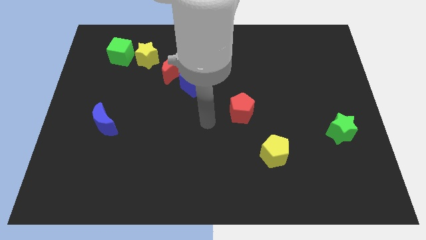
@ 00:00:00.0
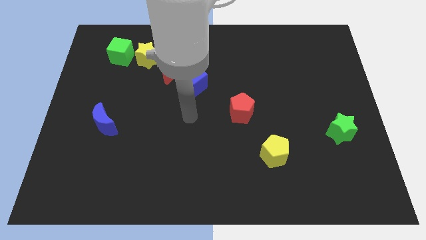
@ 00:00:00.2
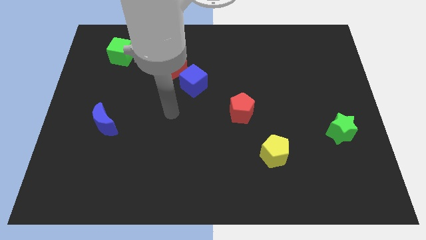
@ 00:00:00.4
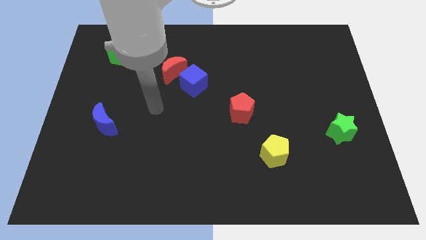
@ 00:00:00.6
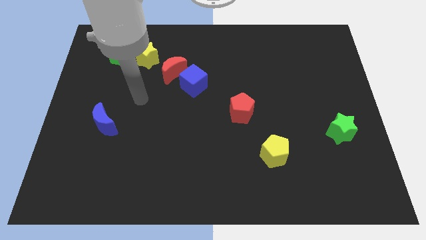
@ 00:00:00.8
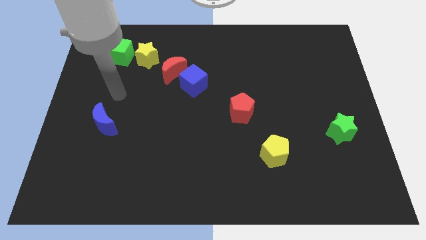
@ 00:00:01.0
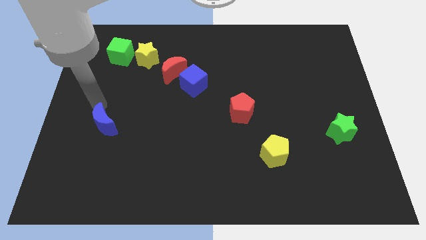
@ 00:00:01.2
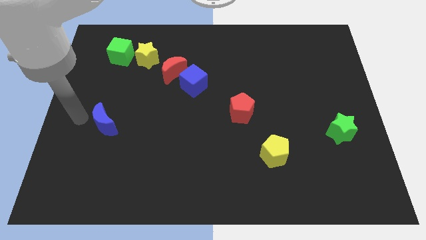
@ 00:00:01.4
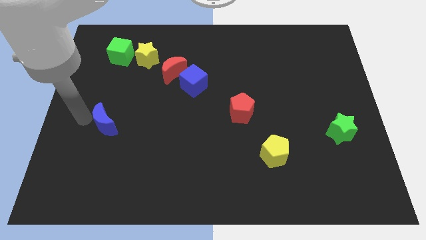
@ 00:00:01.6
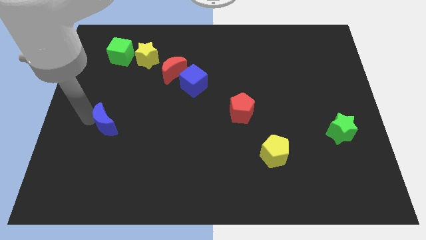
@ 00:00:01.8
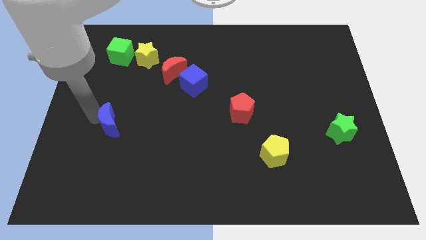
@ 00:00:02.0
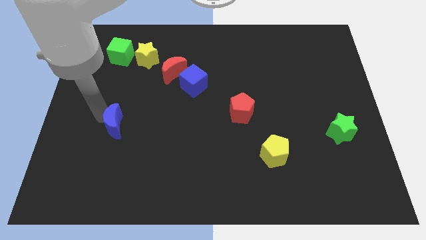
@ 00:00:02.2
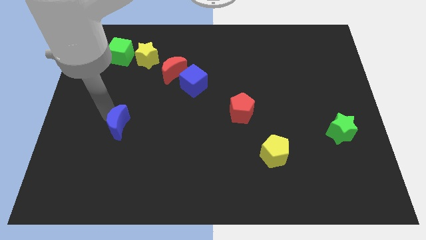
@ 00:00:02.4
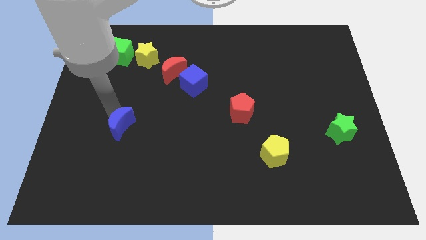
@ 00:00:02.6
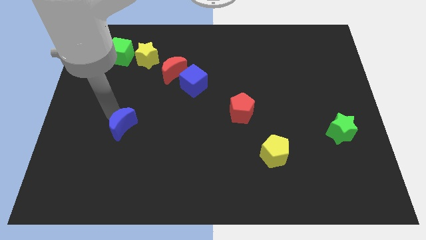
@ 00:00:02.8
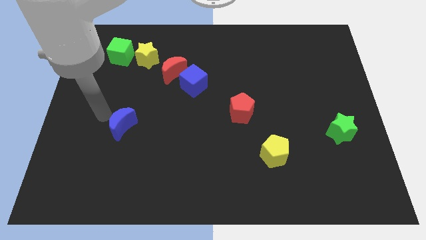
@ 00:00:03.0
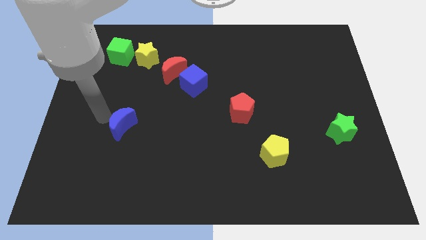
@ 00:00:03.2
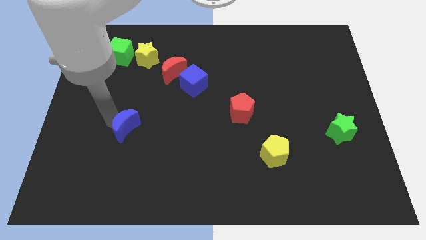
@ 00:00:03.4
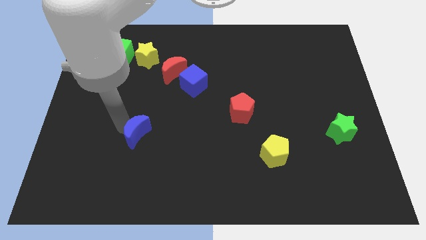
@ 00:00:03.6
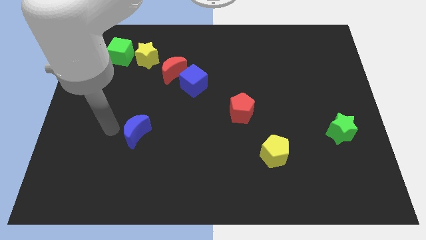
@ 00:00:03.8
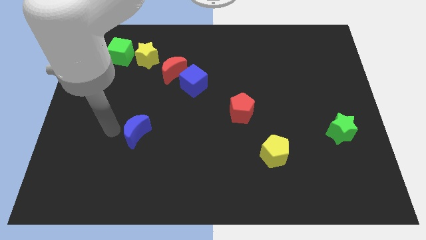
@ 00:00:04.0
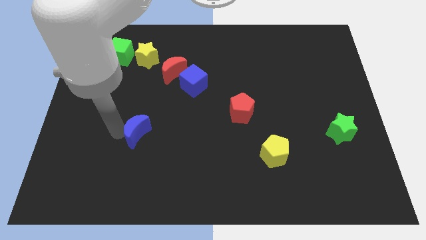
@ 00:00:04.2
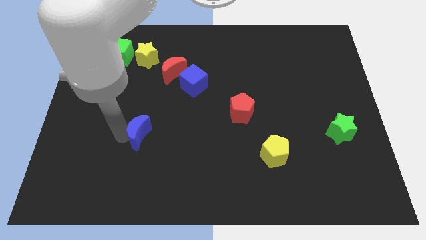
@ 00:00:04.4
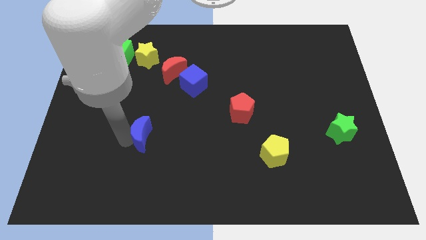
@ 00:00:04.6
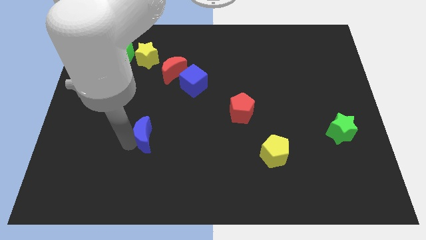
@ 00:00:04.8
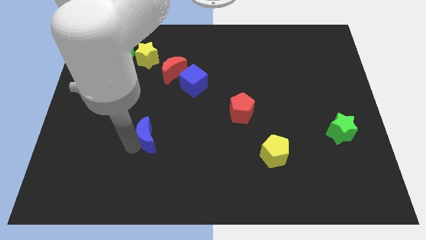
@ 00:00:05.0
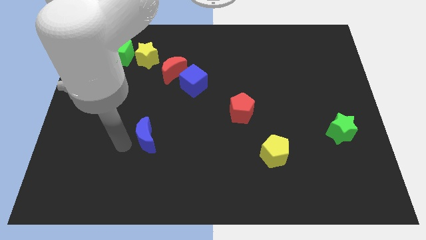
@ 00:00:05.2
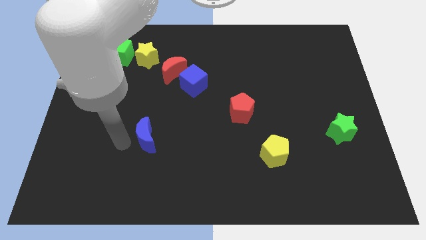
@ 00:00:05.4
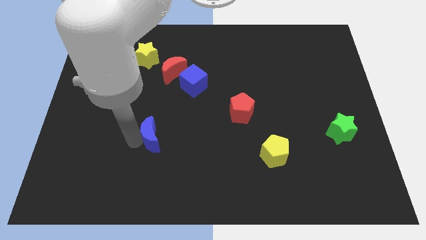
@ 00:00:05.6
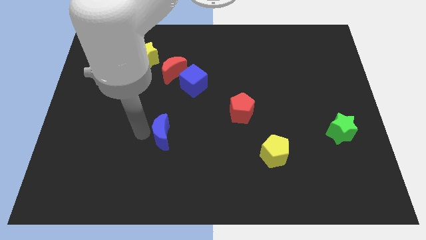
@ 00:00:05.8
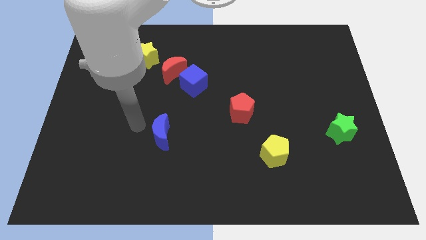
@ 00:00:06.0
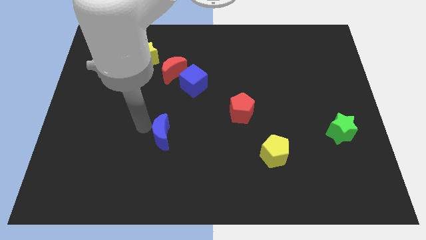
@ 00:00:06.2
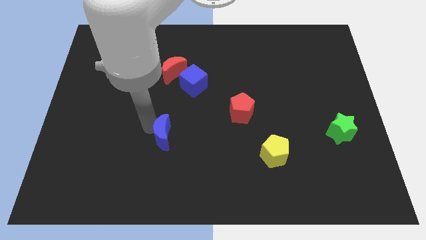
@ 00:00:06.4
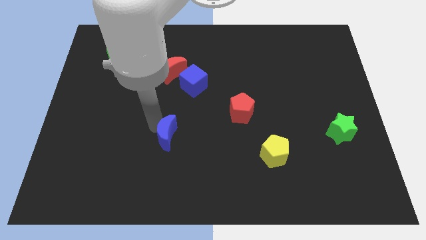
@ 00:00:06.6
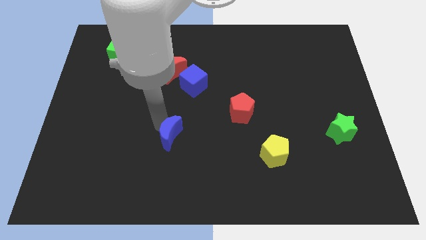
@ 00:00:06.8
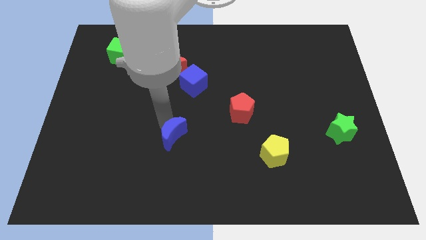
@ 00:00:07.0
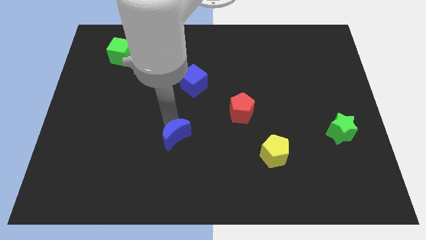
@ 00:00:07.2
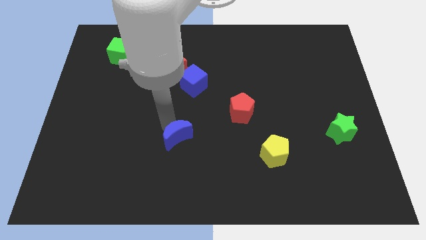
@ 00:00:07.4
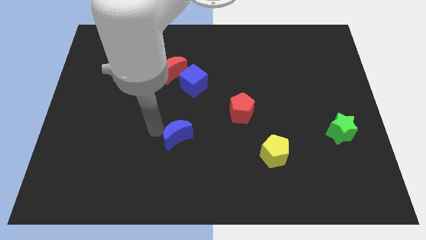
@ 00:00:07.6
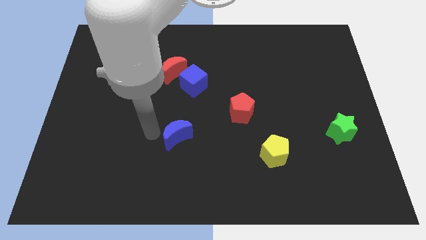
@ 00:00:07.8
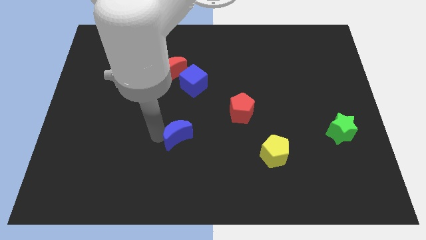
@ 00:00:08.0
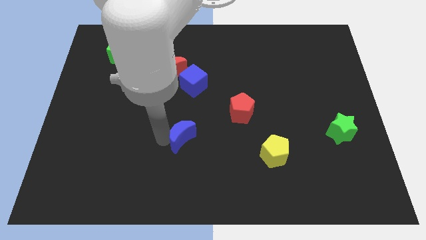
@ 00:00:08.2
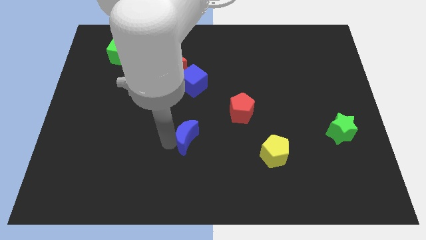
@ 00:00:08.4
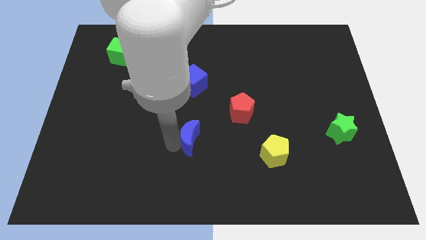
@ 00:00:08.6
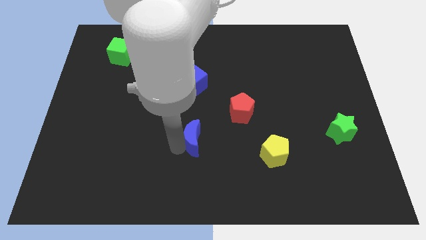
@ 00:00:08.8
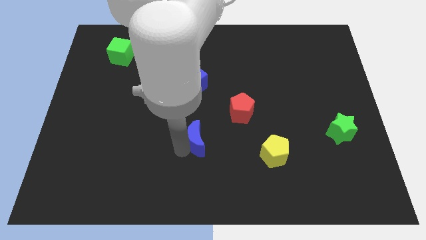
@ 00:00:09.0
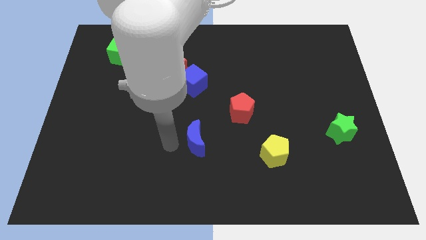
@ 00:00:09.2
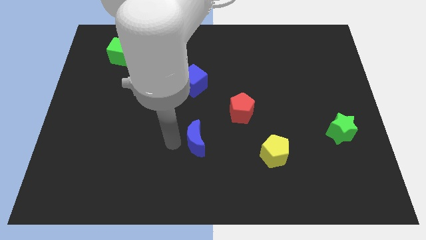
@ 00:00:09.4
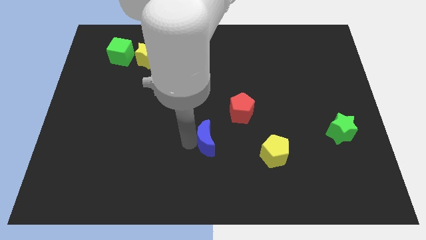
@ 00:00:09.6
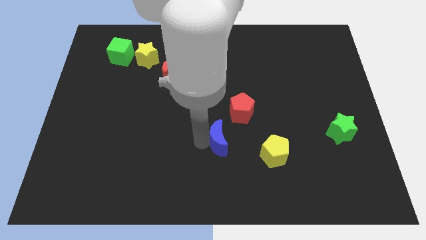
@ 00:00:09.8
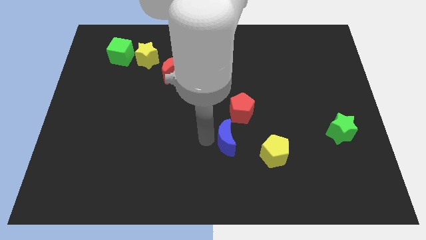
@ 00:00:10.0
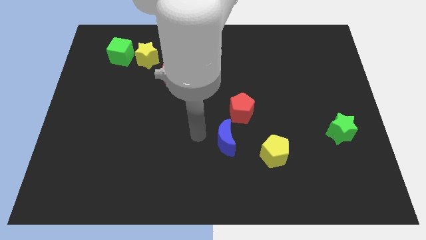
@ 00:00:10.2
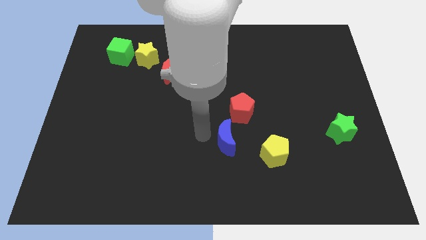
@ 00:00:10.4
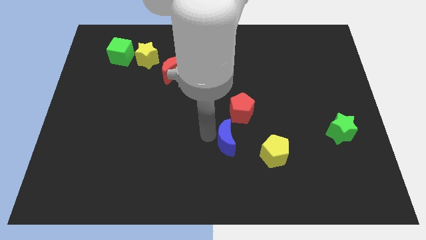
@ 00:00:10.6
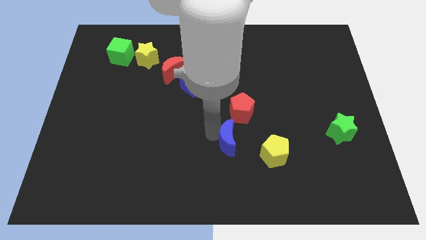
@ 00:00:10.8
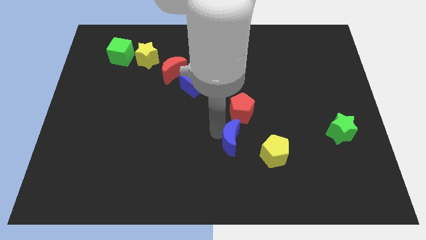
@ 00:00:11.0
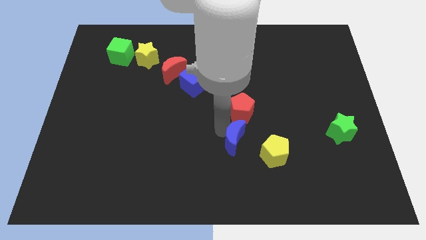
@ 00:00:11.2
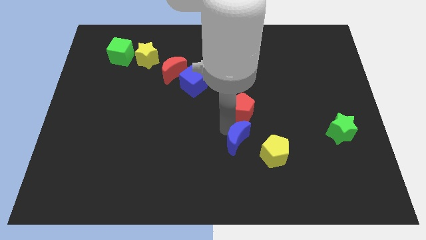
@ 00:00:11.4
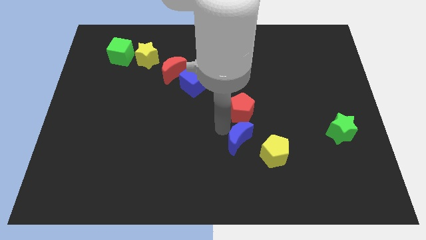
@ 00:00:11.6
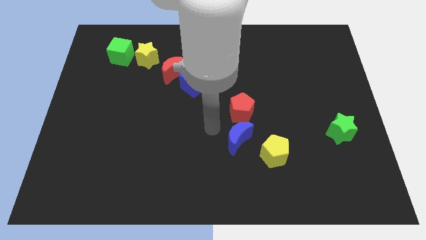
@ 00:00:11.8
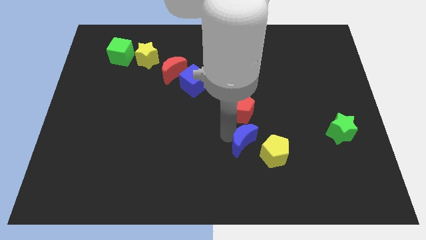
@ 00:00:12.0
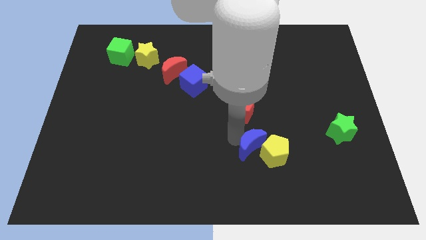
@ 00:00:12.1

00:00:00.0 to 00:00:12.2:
push the blue moon next to the yellow pentagon

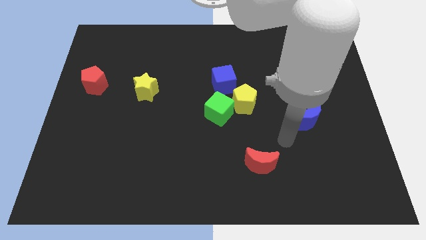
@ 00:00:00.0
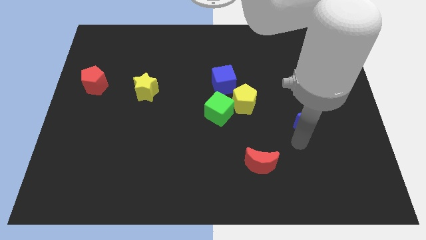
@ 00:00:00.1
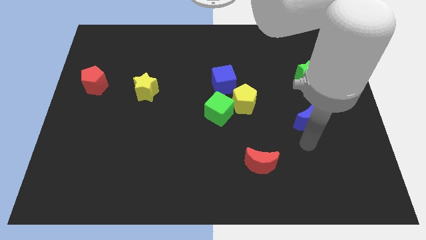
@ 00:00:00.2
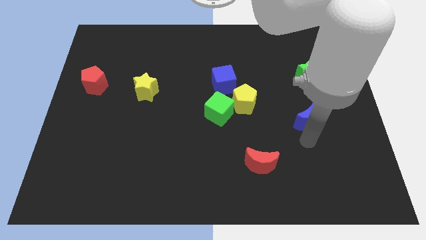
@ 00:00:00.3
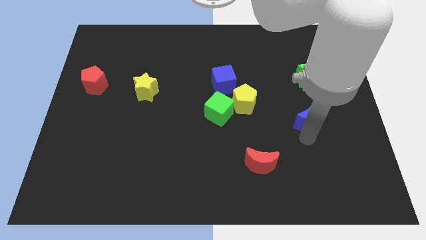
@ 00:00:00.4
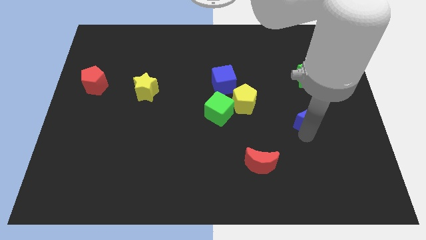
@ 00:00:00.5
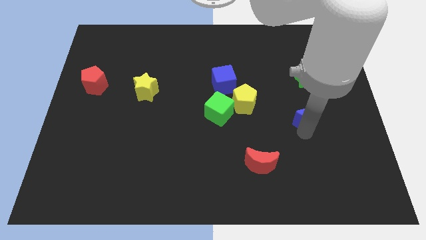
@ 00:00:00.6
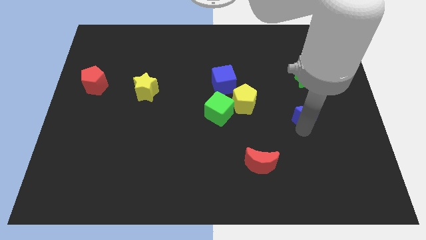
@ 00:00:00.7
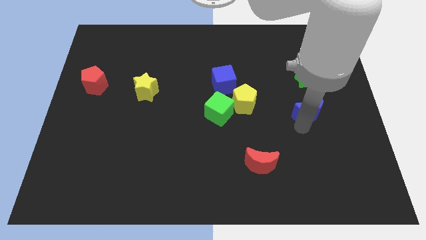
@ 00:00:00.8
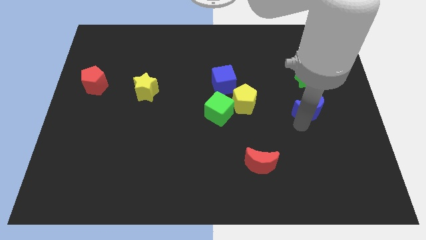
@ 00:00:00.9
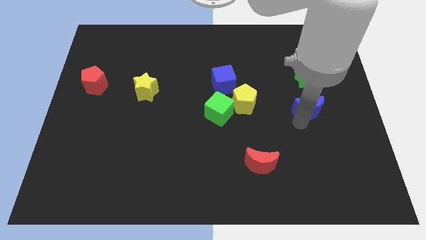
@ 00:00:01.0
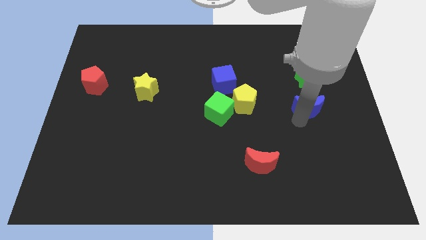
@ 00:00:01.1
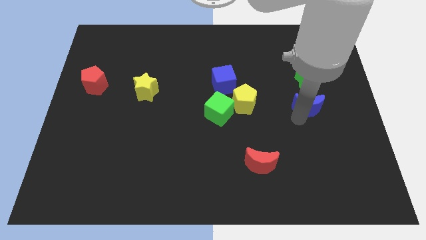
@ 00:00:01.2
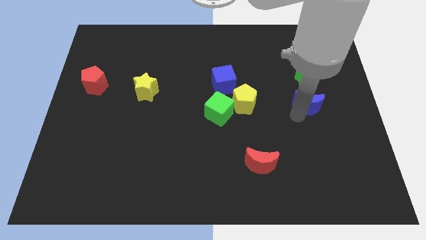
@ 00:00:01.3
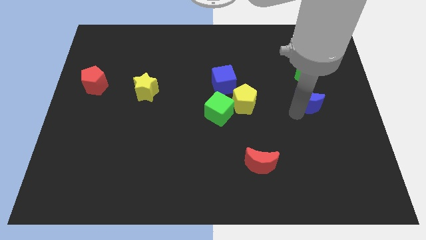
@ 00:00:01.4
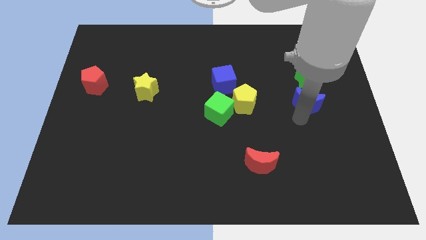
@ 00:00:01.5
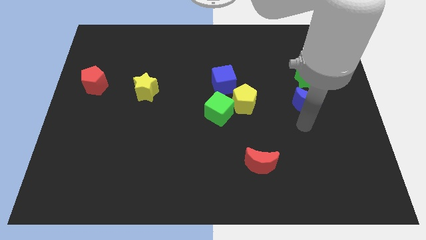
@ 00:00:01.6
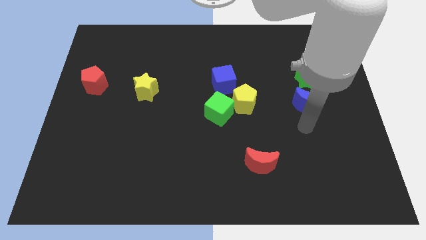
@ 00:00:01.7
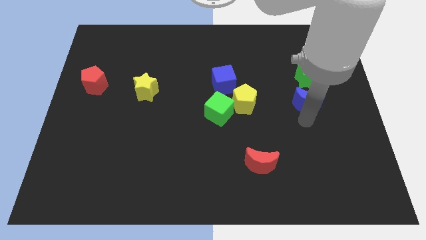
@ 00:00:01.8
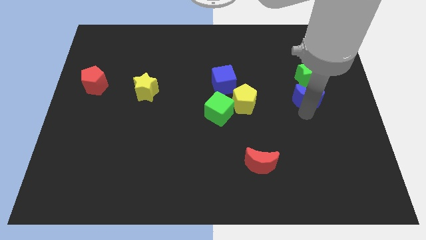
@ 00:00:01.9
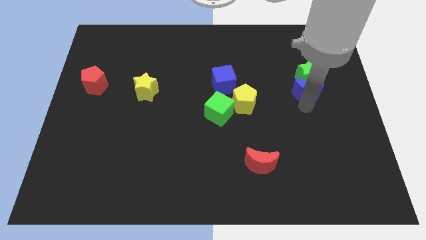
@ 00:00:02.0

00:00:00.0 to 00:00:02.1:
push the blue moon towards the green star
